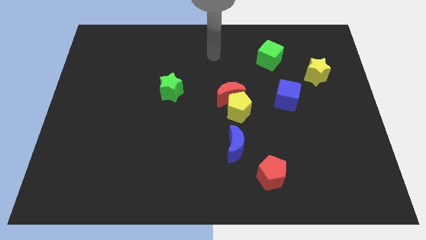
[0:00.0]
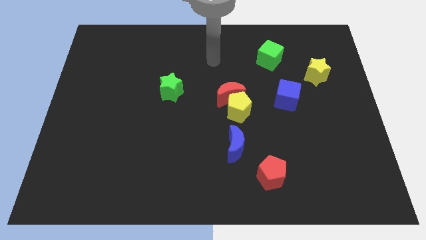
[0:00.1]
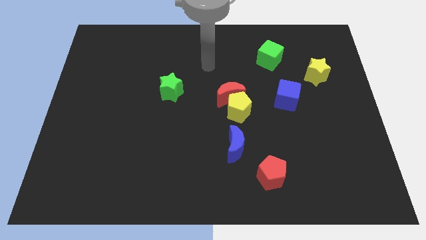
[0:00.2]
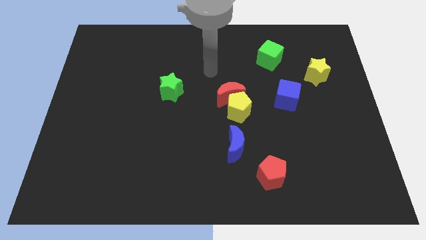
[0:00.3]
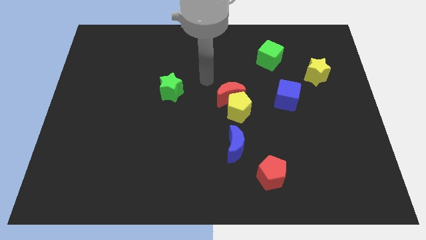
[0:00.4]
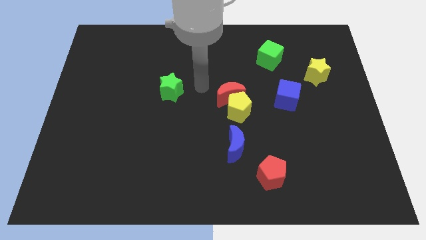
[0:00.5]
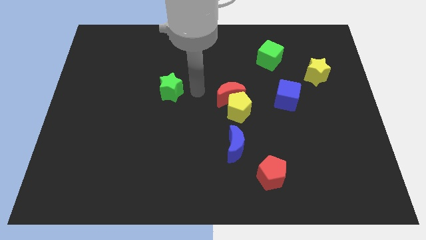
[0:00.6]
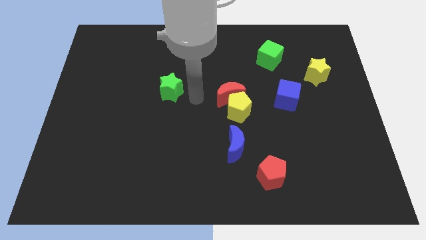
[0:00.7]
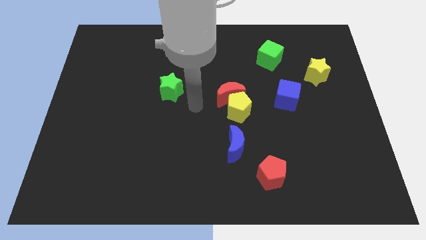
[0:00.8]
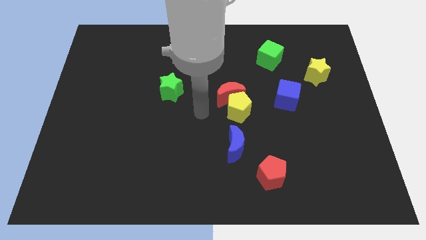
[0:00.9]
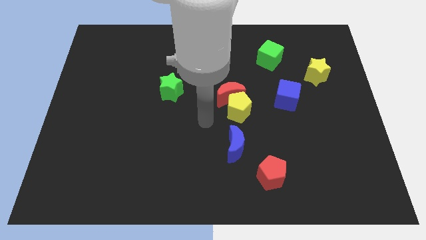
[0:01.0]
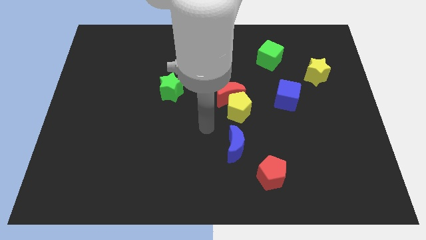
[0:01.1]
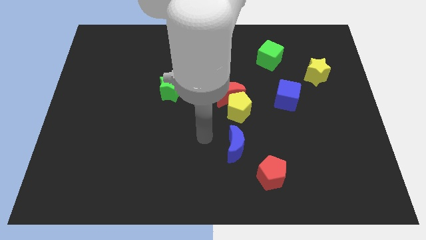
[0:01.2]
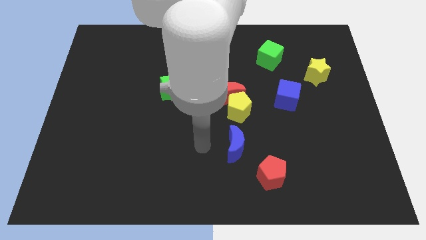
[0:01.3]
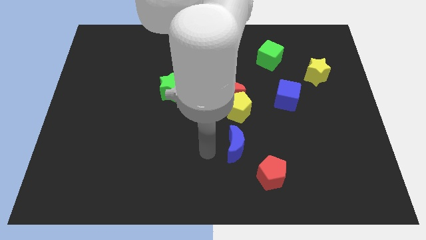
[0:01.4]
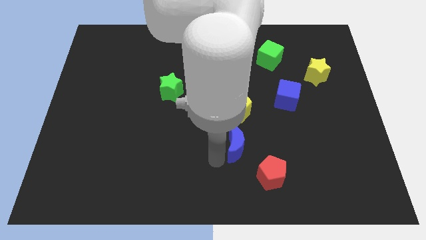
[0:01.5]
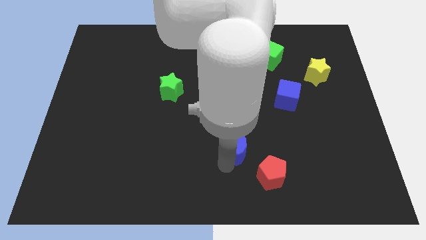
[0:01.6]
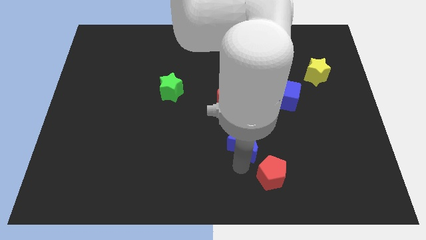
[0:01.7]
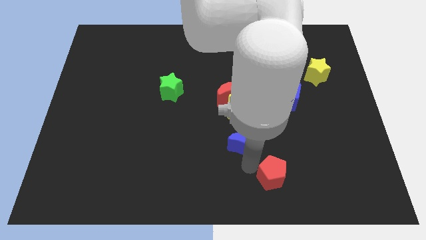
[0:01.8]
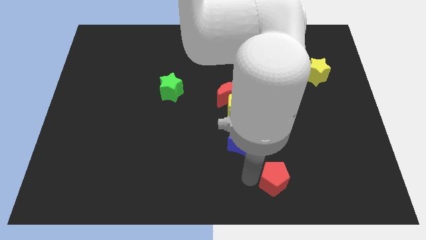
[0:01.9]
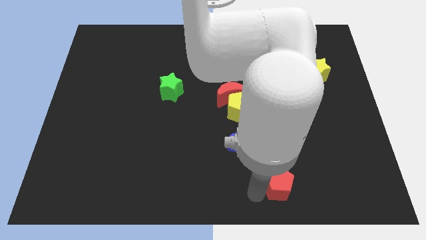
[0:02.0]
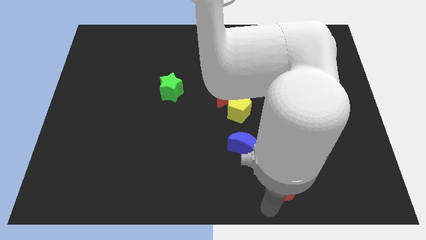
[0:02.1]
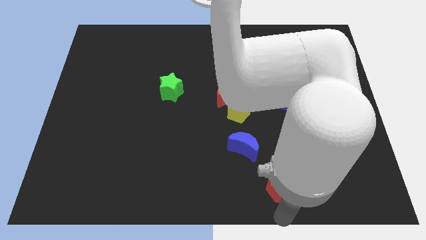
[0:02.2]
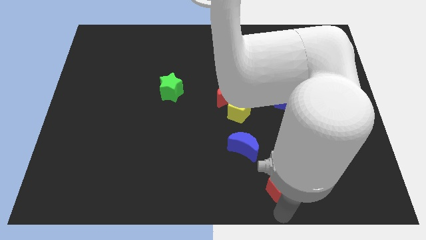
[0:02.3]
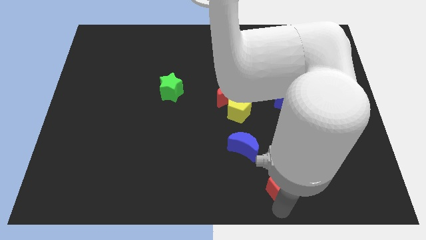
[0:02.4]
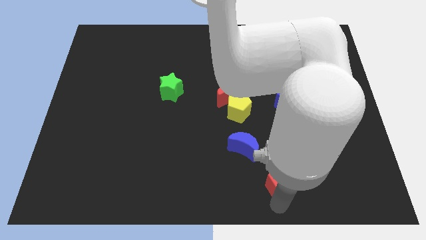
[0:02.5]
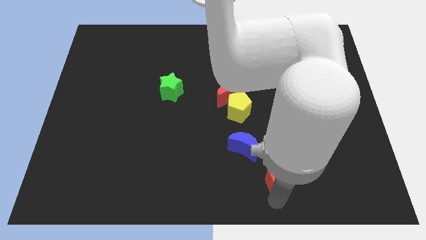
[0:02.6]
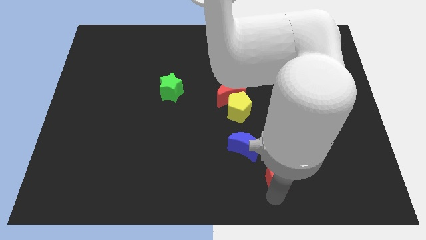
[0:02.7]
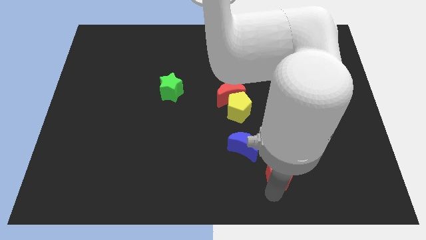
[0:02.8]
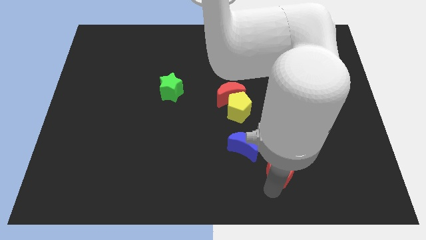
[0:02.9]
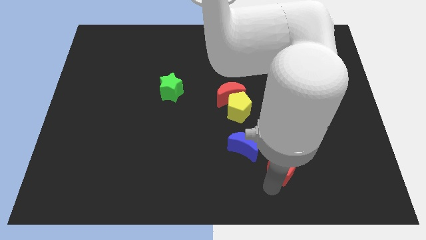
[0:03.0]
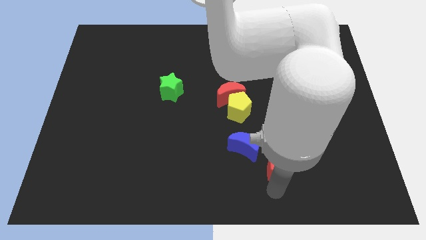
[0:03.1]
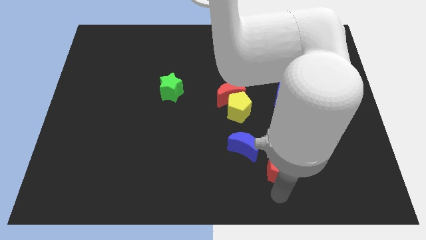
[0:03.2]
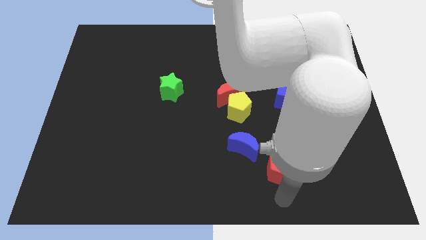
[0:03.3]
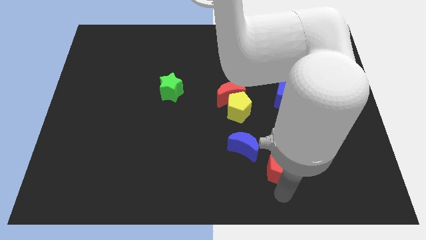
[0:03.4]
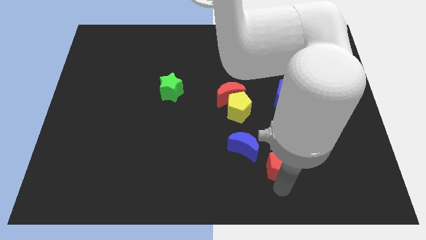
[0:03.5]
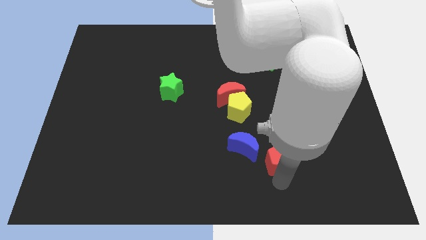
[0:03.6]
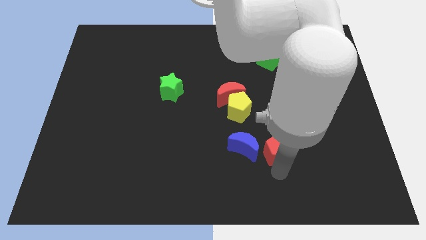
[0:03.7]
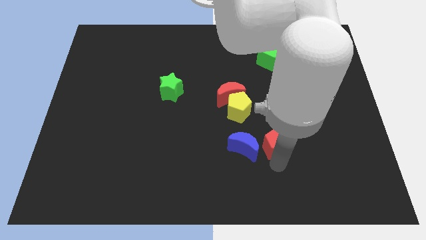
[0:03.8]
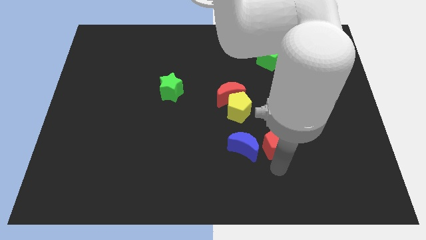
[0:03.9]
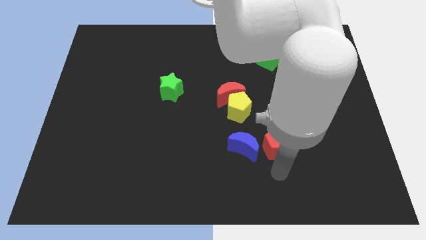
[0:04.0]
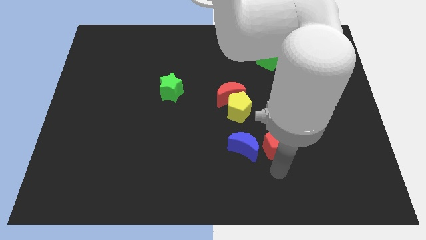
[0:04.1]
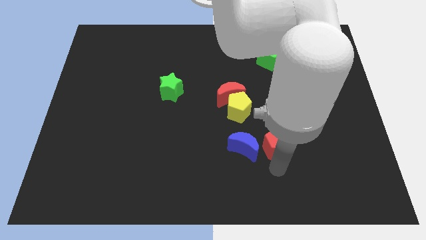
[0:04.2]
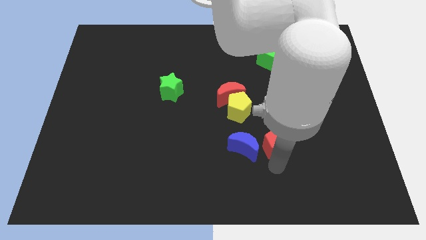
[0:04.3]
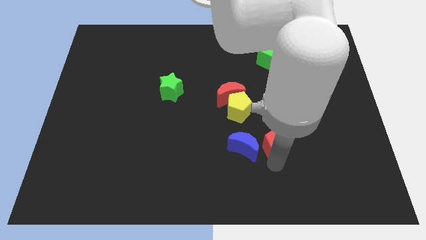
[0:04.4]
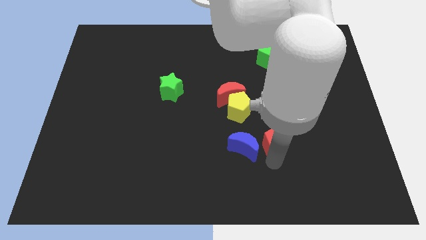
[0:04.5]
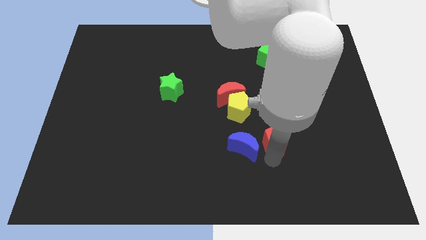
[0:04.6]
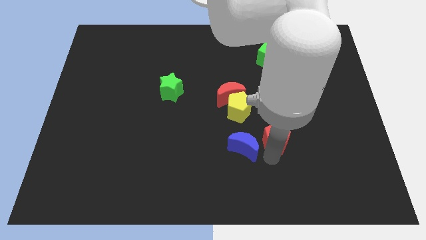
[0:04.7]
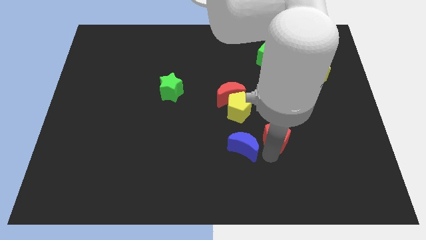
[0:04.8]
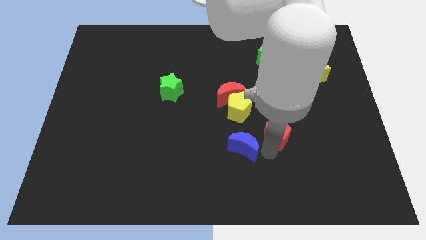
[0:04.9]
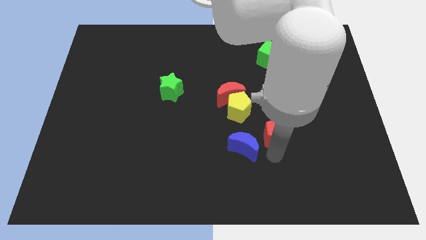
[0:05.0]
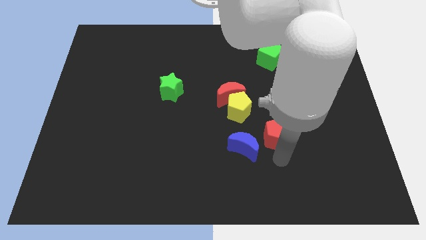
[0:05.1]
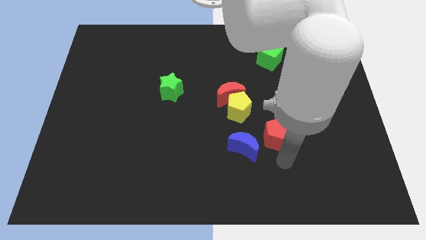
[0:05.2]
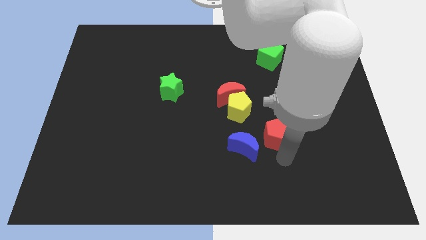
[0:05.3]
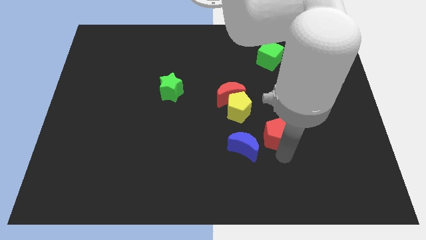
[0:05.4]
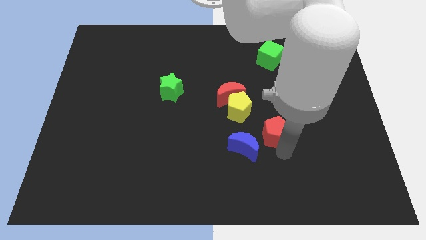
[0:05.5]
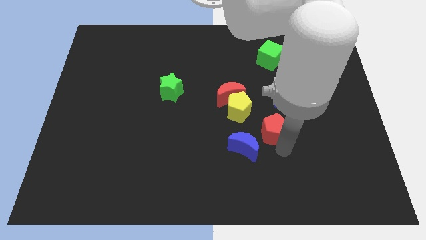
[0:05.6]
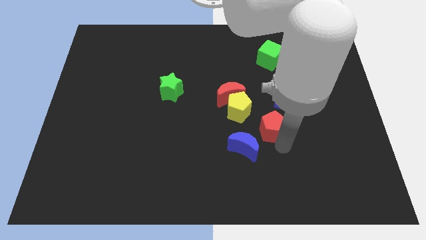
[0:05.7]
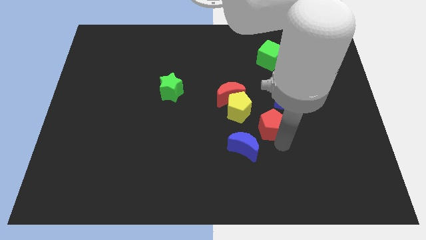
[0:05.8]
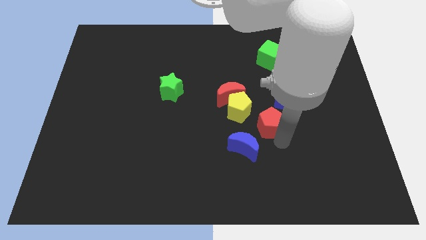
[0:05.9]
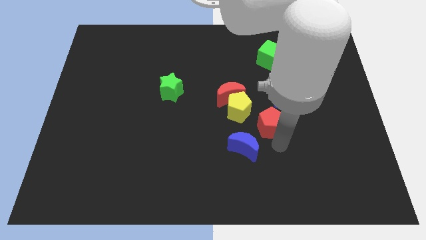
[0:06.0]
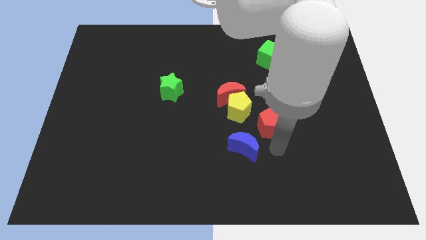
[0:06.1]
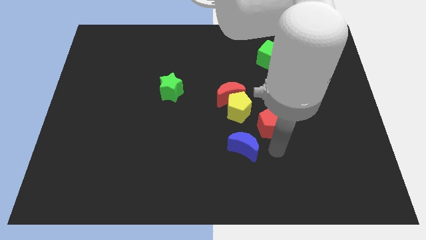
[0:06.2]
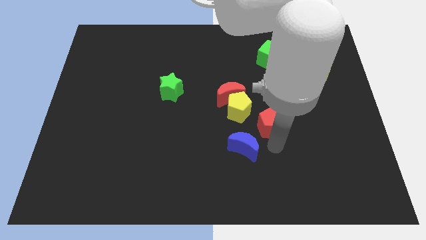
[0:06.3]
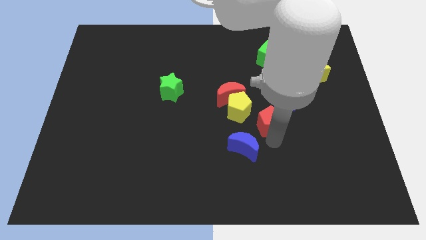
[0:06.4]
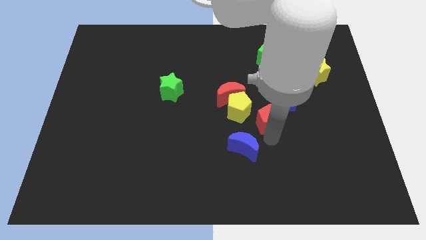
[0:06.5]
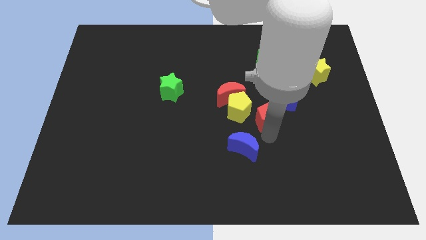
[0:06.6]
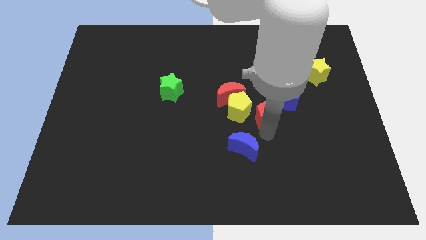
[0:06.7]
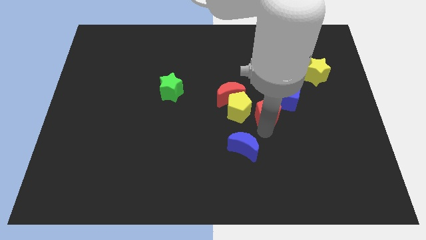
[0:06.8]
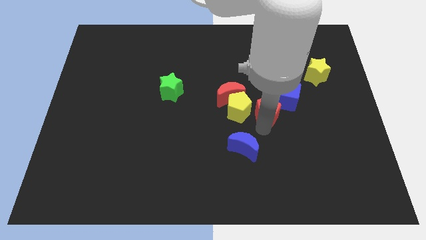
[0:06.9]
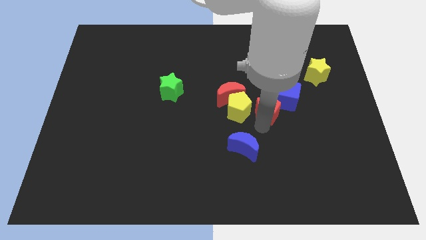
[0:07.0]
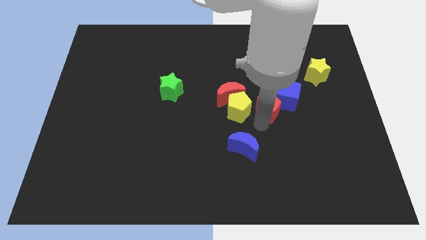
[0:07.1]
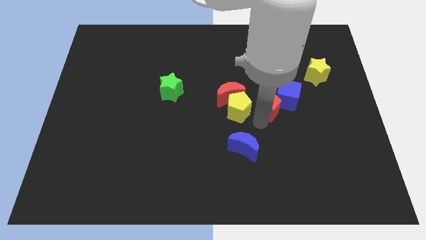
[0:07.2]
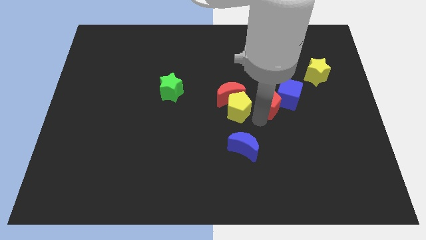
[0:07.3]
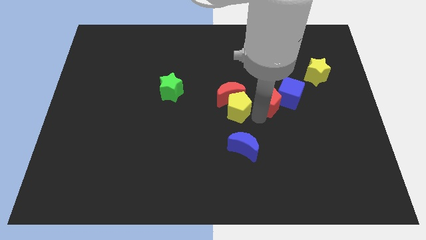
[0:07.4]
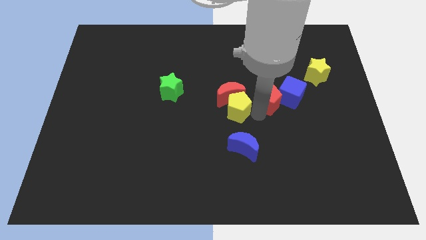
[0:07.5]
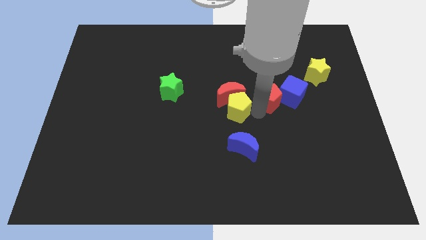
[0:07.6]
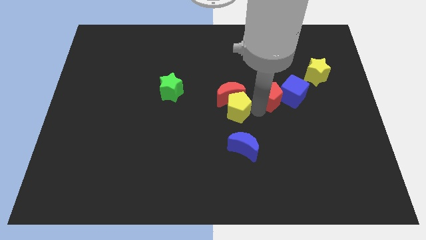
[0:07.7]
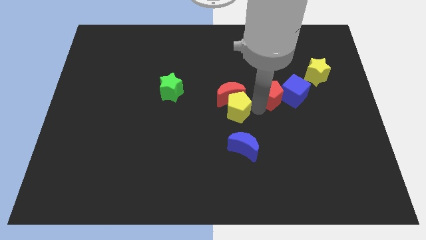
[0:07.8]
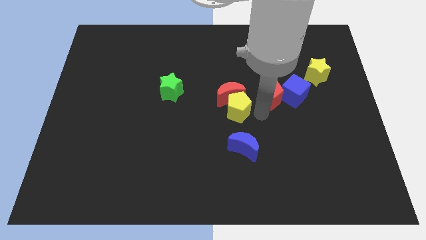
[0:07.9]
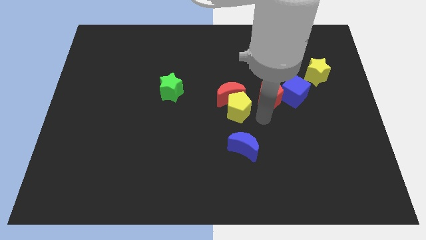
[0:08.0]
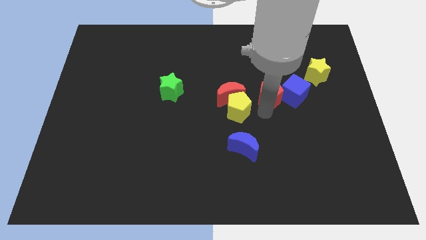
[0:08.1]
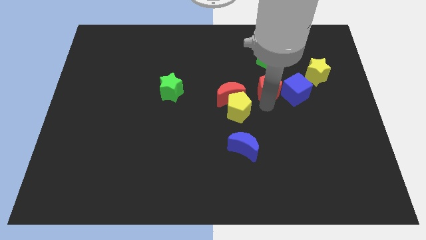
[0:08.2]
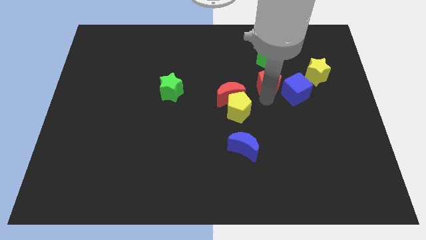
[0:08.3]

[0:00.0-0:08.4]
slide the red pentagon just left of the yellow star
